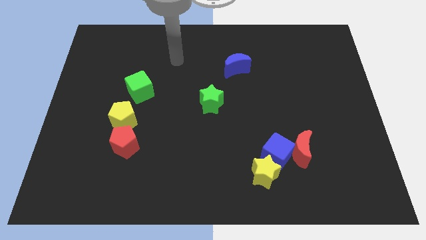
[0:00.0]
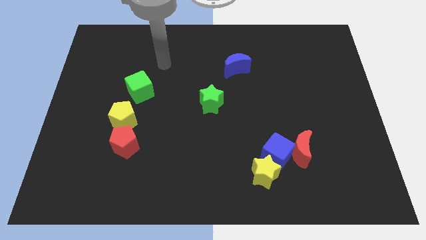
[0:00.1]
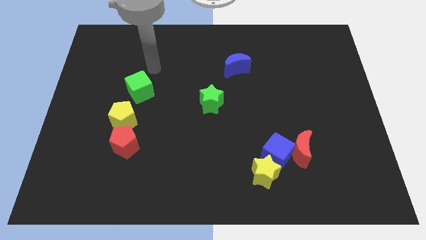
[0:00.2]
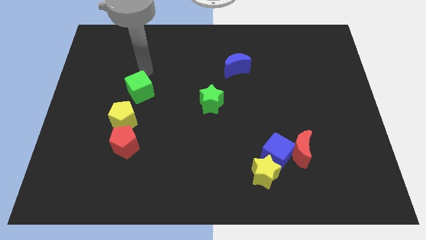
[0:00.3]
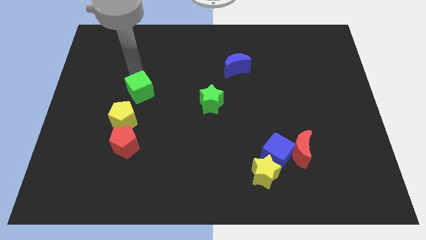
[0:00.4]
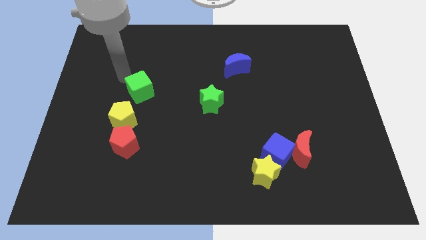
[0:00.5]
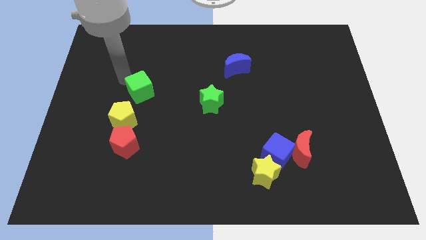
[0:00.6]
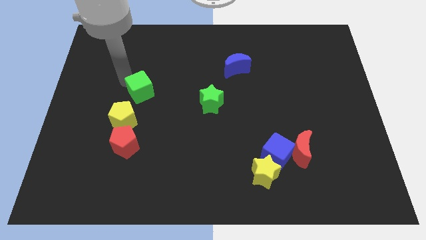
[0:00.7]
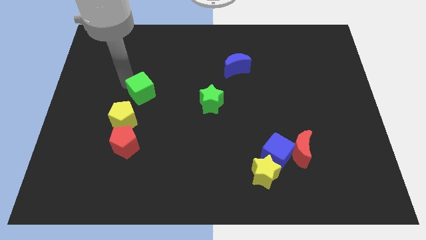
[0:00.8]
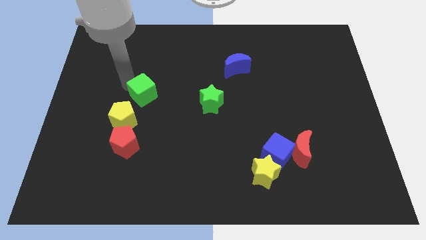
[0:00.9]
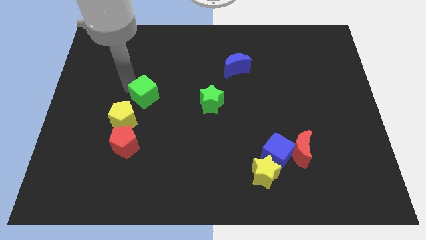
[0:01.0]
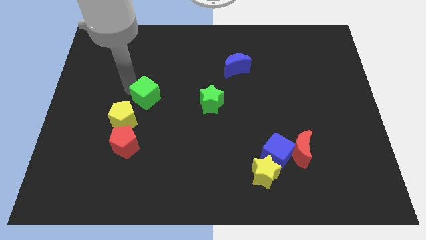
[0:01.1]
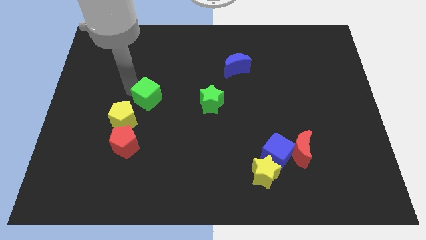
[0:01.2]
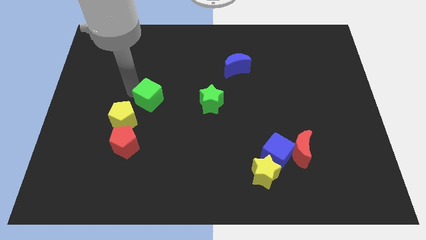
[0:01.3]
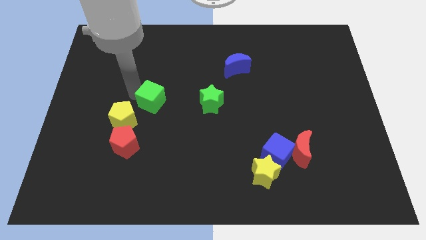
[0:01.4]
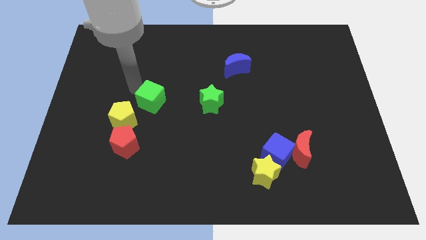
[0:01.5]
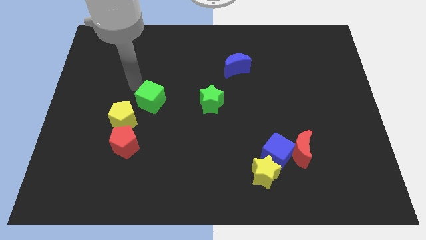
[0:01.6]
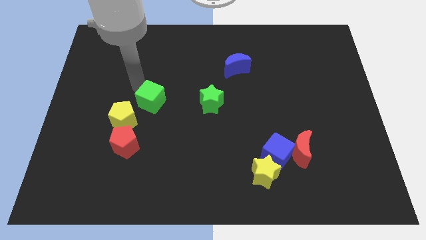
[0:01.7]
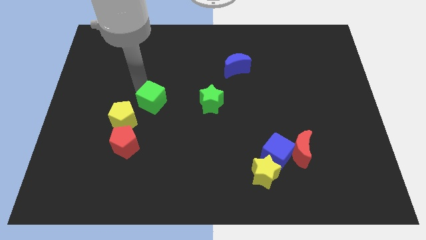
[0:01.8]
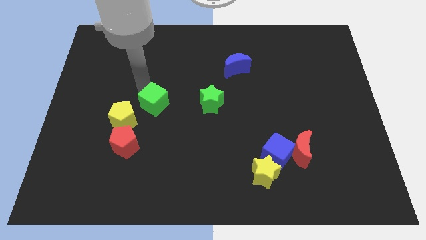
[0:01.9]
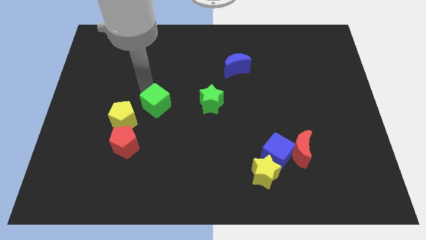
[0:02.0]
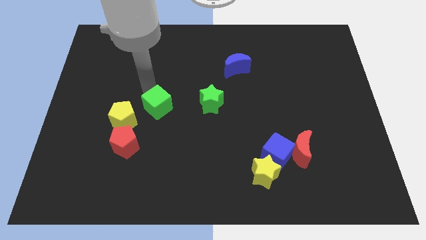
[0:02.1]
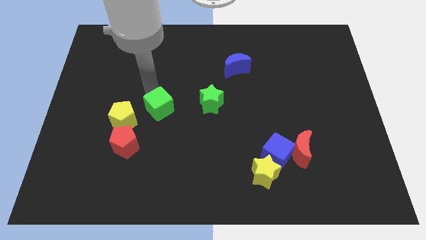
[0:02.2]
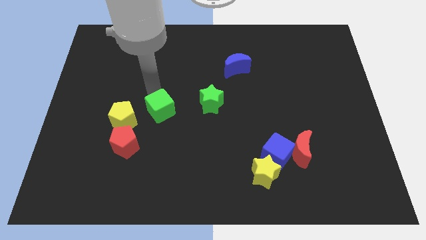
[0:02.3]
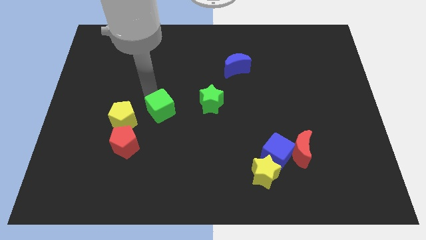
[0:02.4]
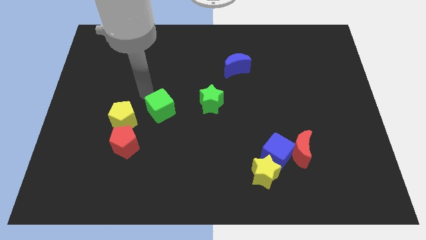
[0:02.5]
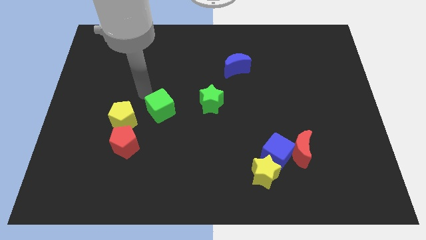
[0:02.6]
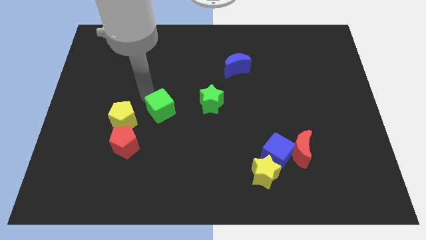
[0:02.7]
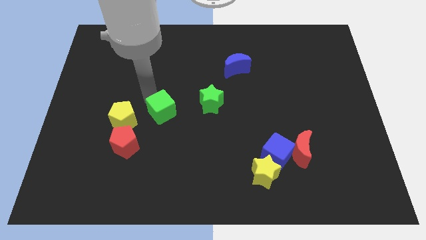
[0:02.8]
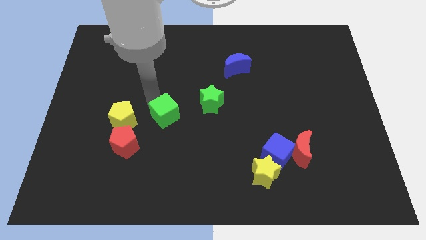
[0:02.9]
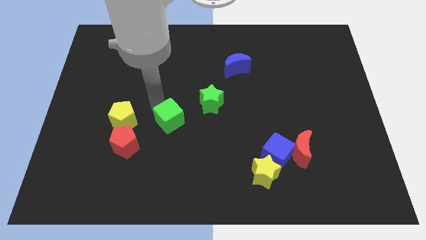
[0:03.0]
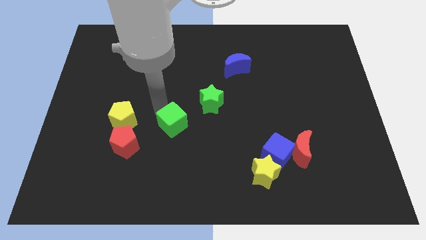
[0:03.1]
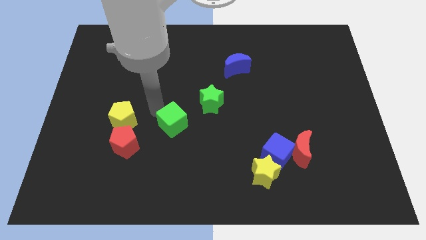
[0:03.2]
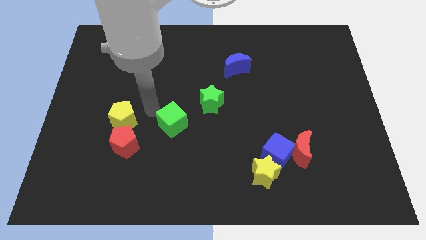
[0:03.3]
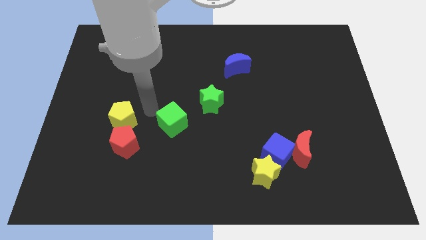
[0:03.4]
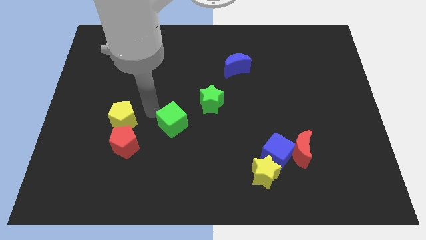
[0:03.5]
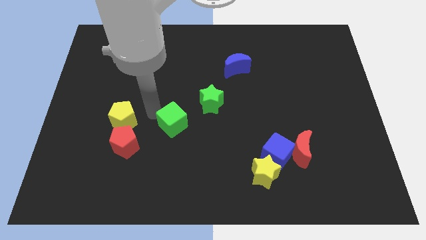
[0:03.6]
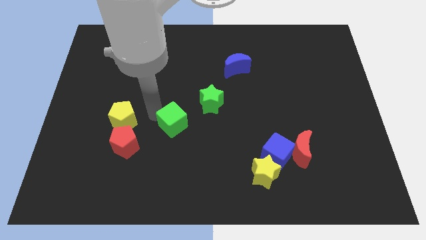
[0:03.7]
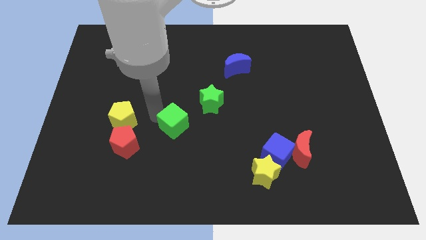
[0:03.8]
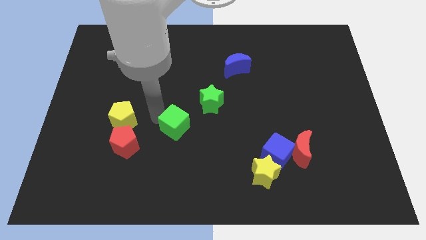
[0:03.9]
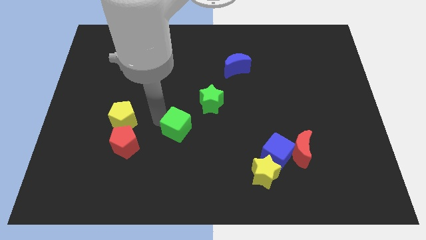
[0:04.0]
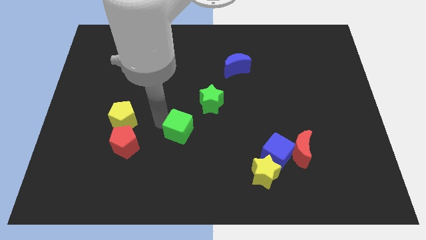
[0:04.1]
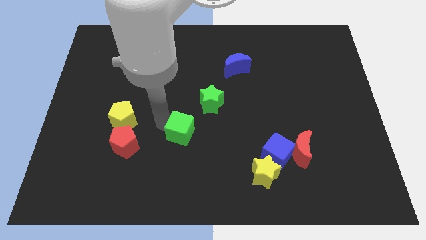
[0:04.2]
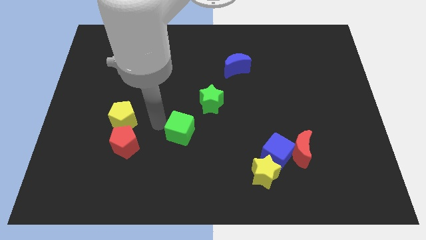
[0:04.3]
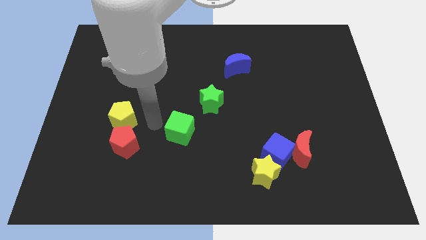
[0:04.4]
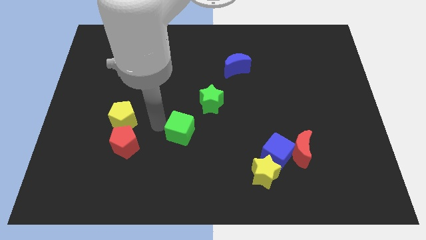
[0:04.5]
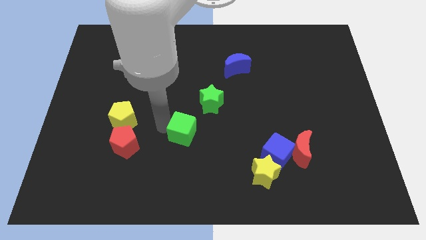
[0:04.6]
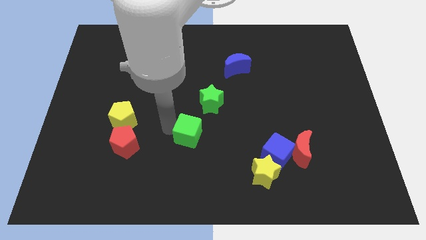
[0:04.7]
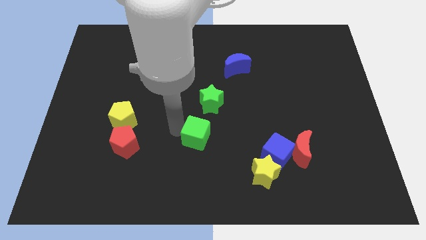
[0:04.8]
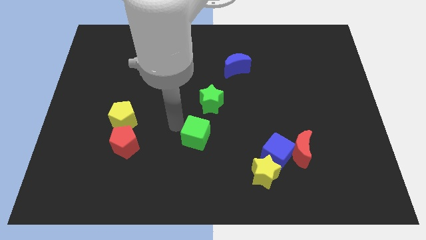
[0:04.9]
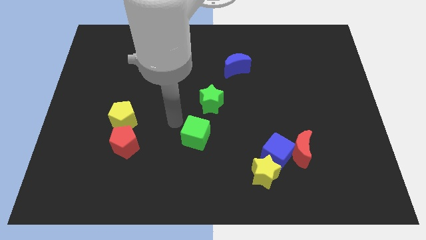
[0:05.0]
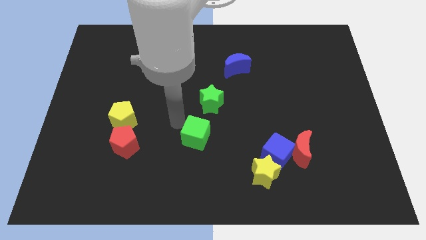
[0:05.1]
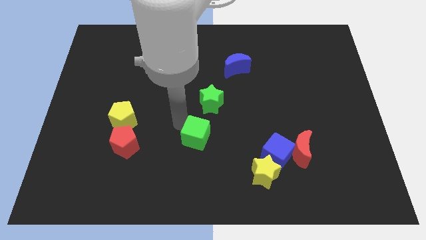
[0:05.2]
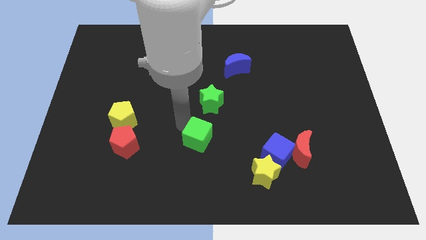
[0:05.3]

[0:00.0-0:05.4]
slide the green cube diagonally downwards and to the right

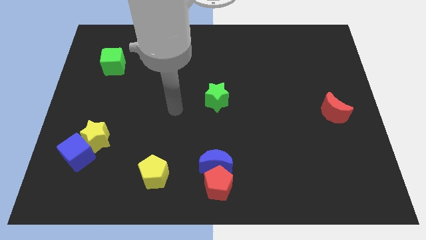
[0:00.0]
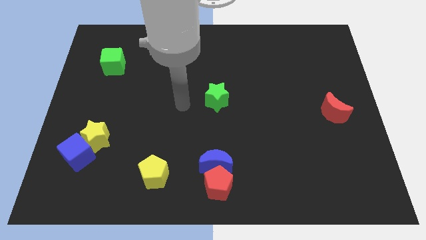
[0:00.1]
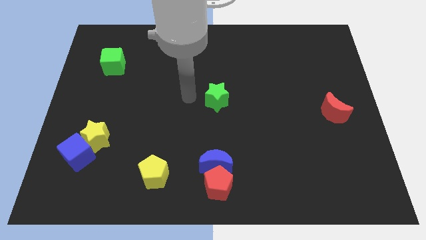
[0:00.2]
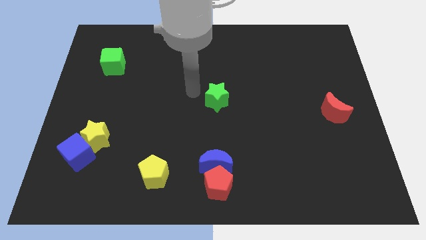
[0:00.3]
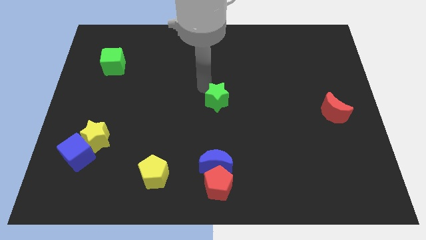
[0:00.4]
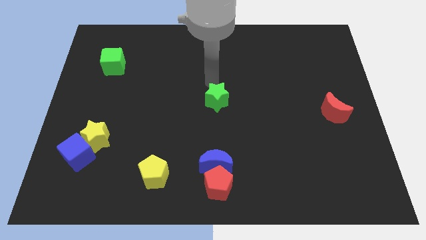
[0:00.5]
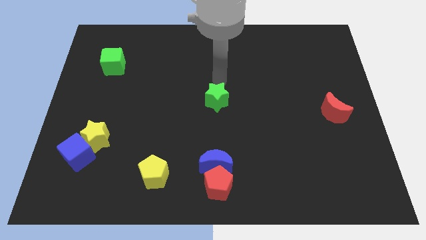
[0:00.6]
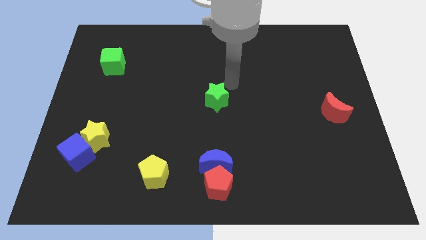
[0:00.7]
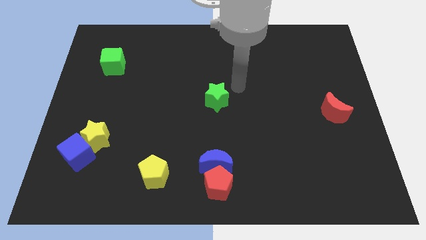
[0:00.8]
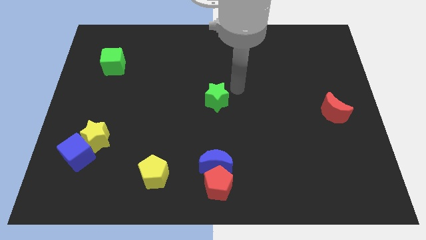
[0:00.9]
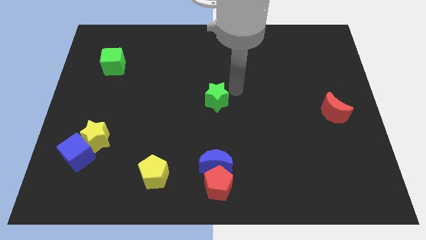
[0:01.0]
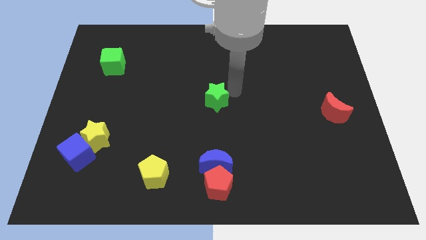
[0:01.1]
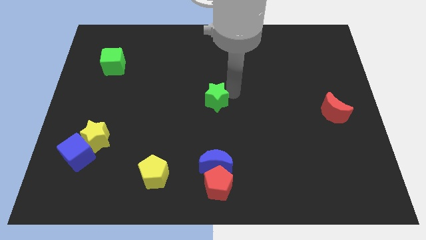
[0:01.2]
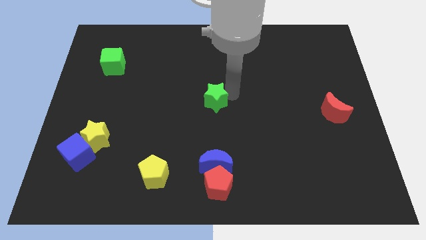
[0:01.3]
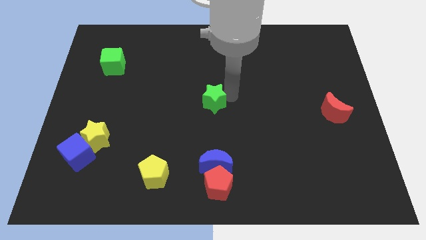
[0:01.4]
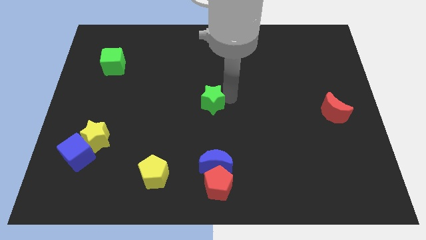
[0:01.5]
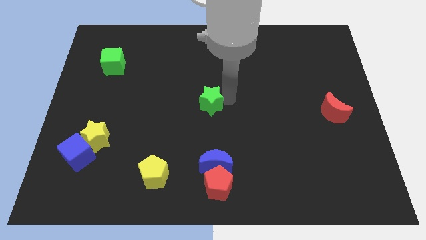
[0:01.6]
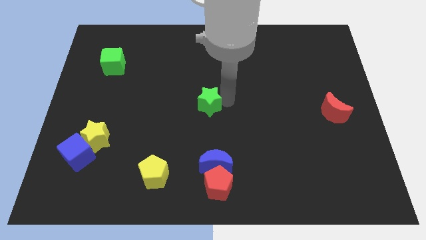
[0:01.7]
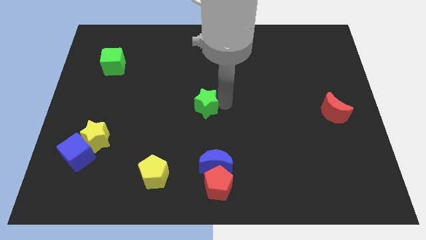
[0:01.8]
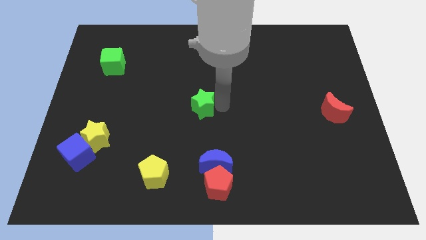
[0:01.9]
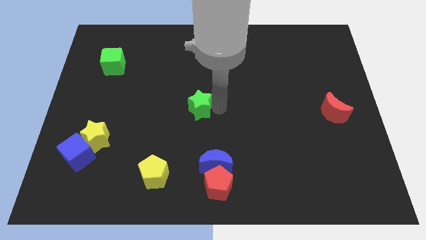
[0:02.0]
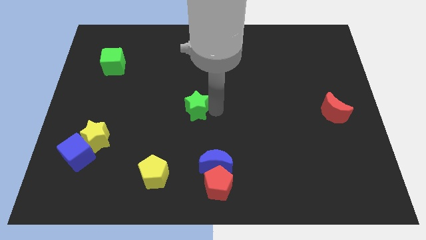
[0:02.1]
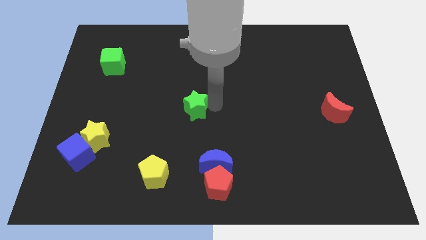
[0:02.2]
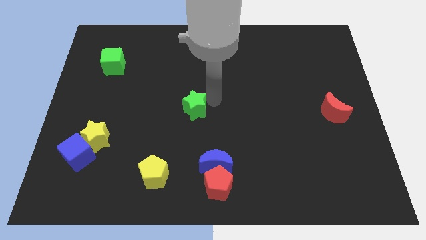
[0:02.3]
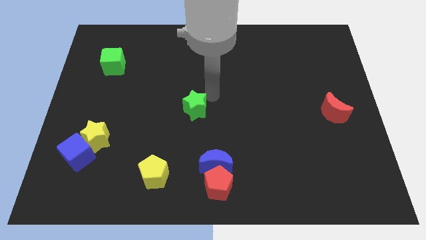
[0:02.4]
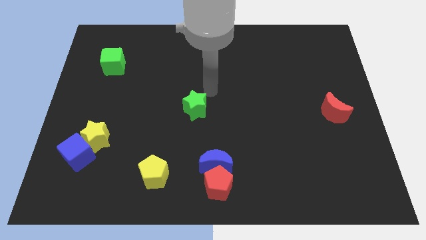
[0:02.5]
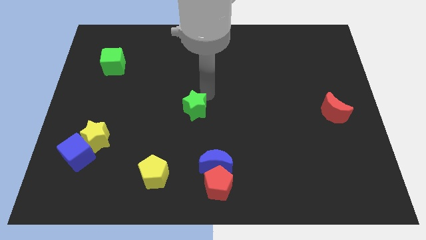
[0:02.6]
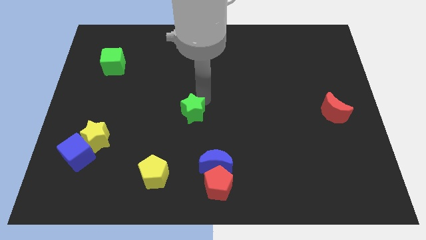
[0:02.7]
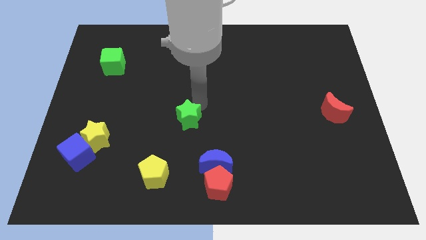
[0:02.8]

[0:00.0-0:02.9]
move the green star down and then to the left slightly
